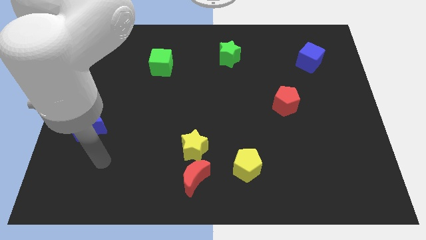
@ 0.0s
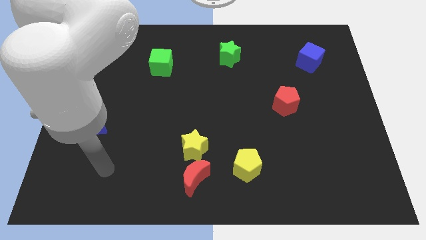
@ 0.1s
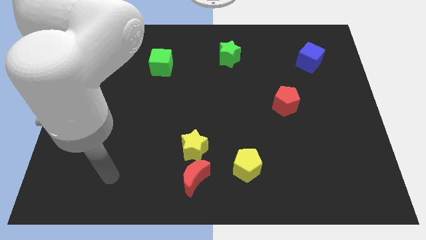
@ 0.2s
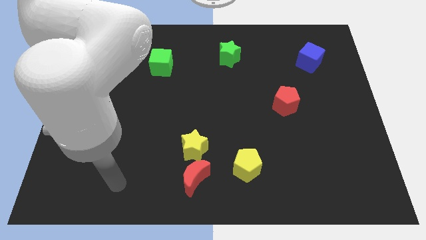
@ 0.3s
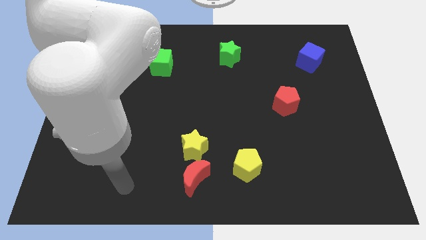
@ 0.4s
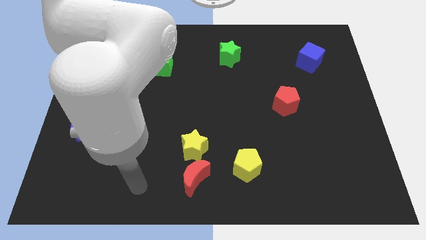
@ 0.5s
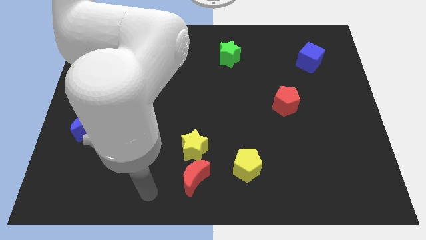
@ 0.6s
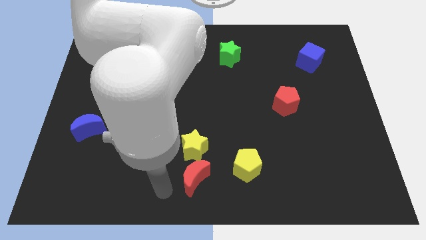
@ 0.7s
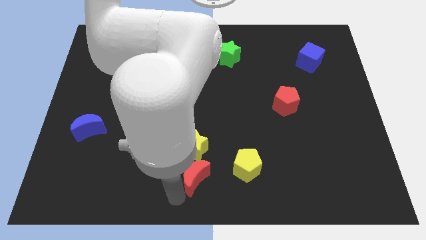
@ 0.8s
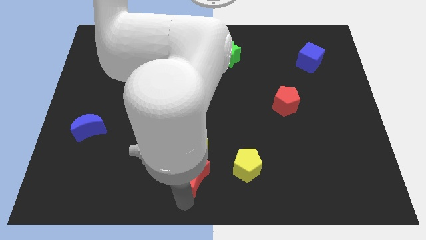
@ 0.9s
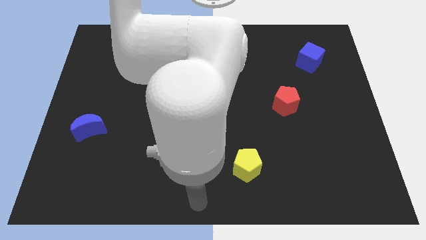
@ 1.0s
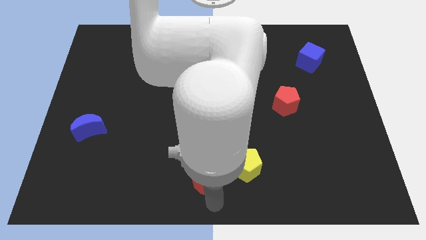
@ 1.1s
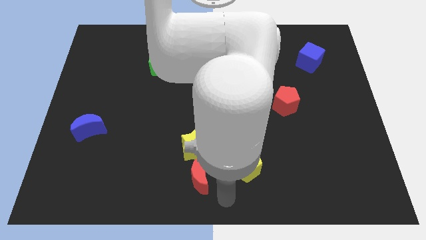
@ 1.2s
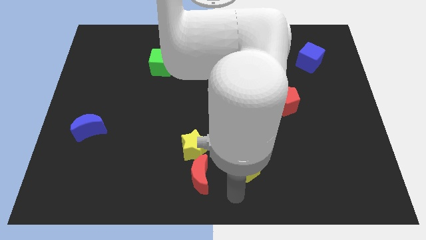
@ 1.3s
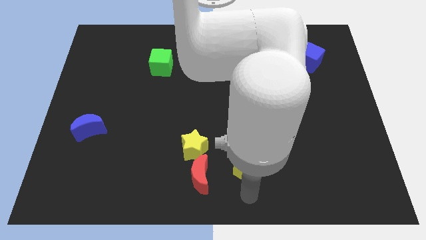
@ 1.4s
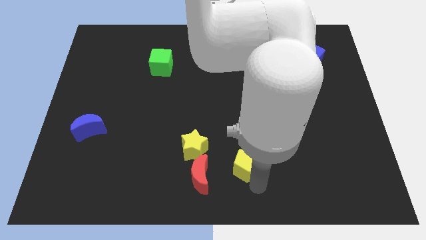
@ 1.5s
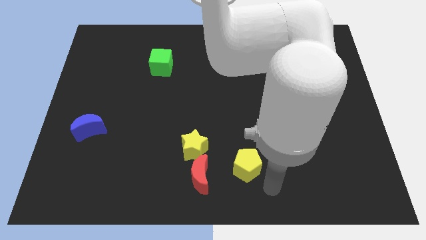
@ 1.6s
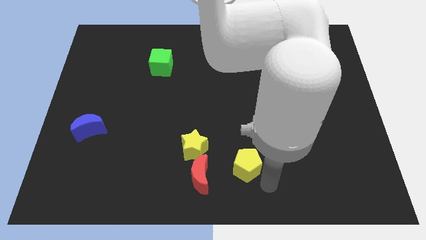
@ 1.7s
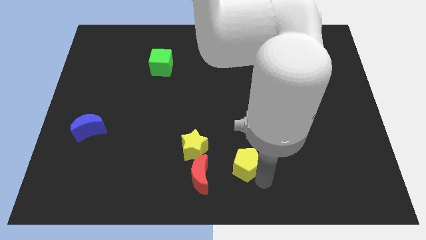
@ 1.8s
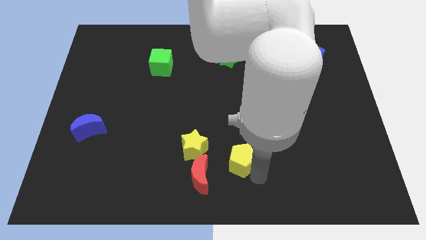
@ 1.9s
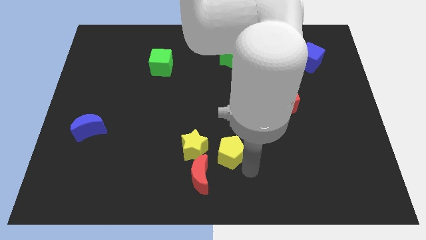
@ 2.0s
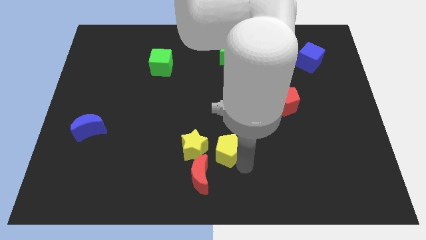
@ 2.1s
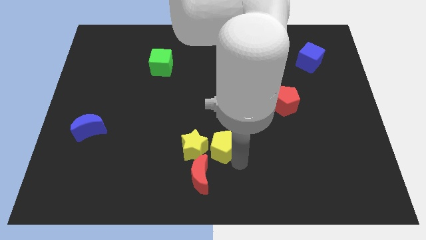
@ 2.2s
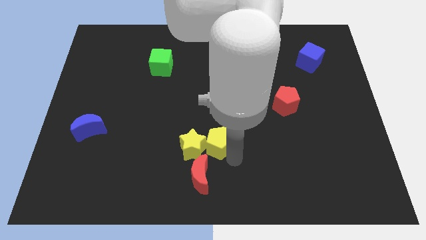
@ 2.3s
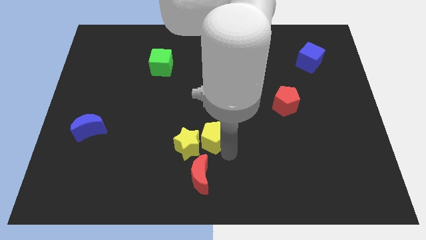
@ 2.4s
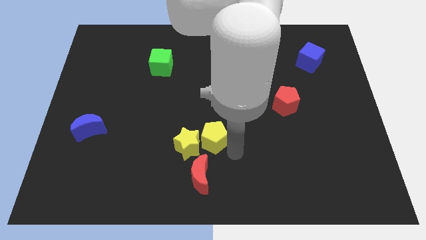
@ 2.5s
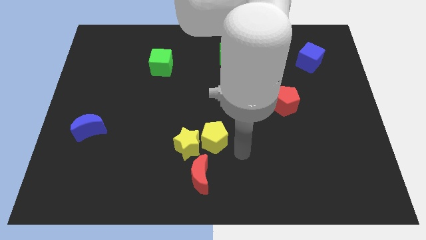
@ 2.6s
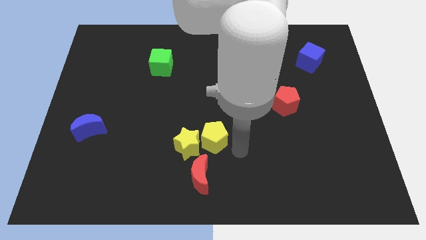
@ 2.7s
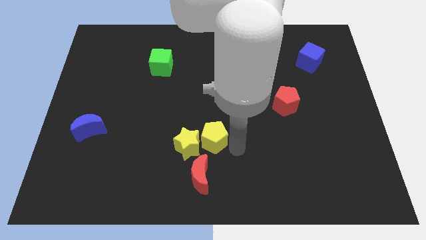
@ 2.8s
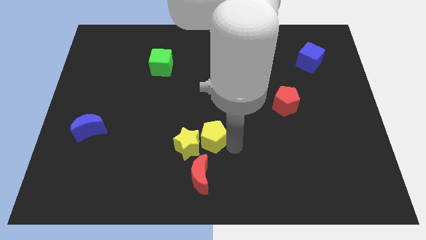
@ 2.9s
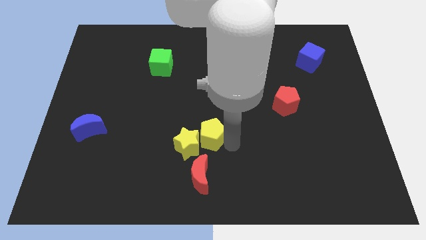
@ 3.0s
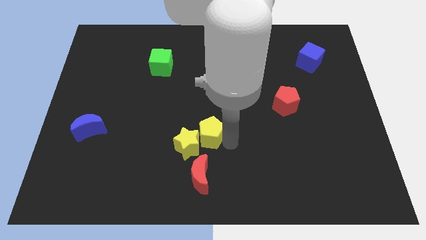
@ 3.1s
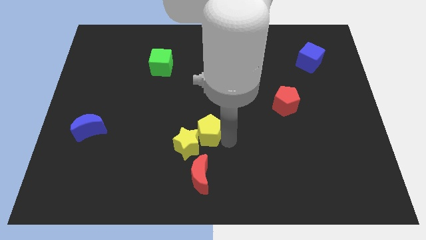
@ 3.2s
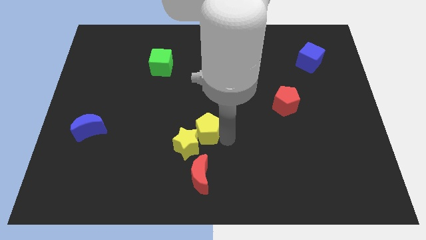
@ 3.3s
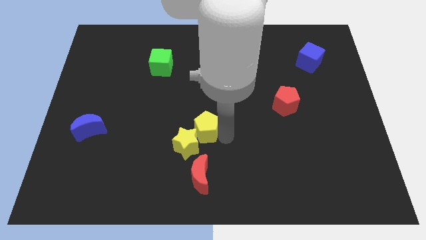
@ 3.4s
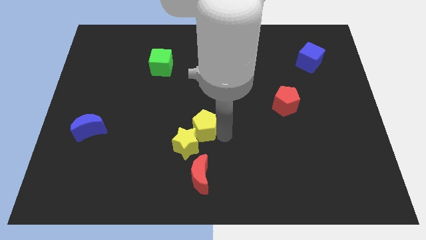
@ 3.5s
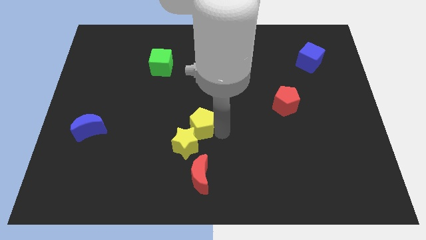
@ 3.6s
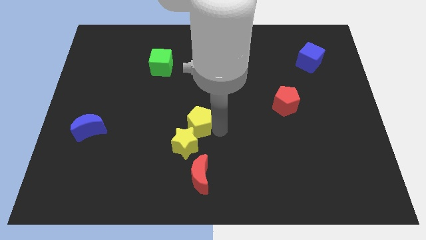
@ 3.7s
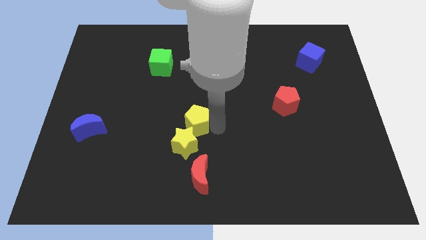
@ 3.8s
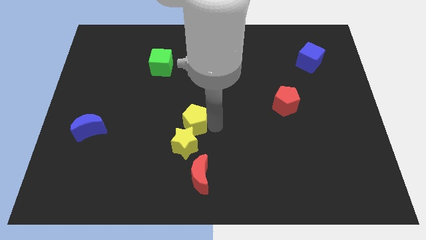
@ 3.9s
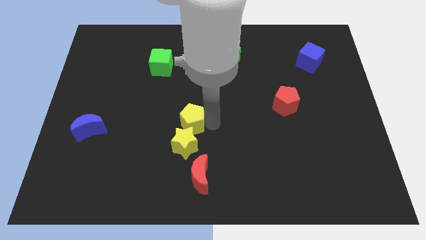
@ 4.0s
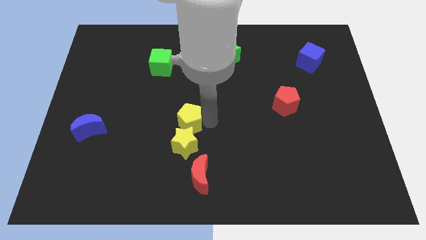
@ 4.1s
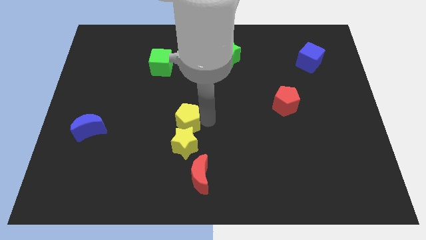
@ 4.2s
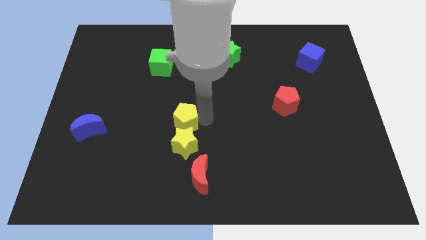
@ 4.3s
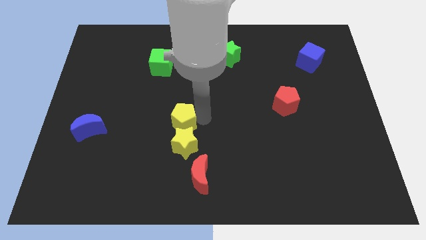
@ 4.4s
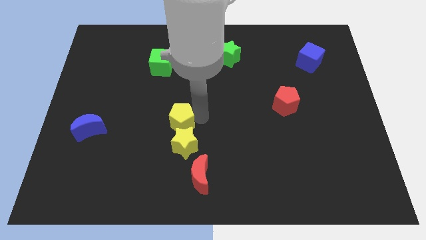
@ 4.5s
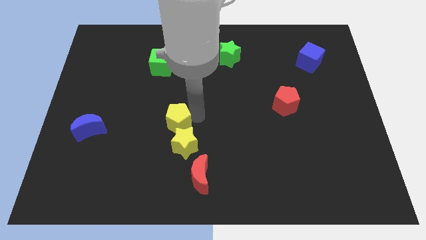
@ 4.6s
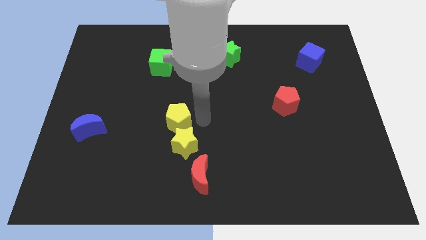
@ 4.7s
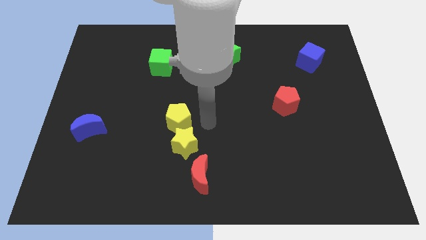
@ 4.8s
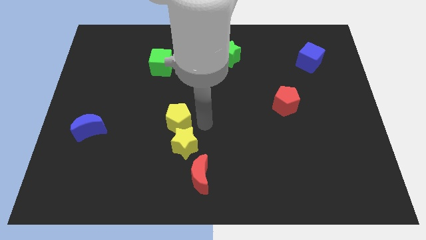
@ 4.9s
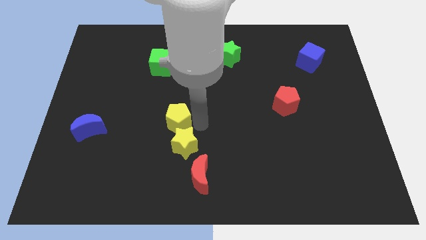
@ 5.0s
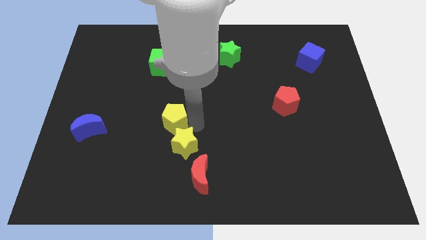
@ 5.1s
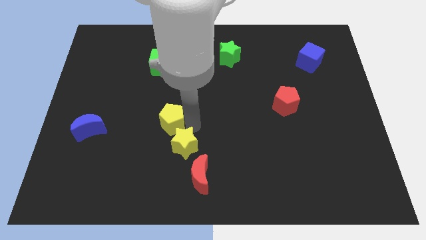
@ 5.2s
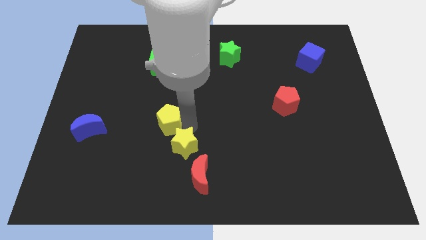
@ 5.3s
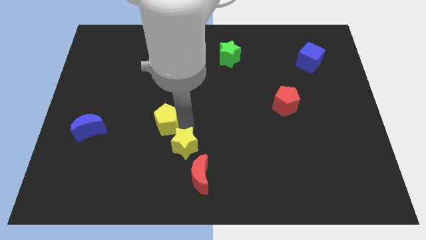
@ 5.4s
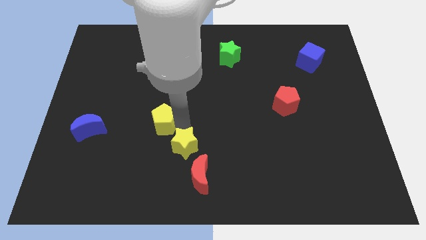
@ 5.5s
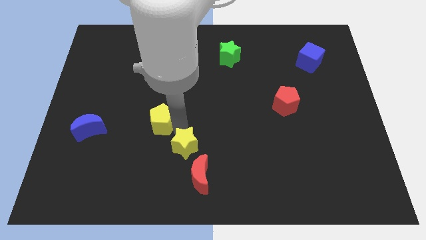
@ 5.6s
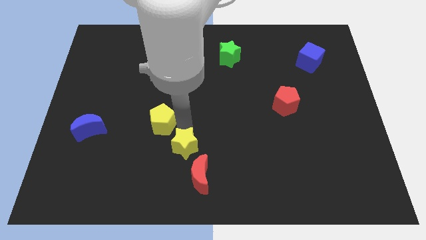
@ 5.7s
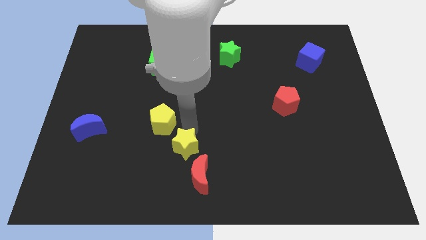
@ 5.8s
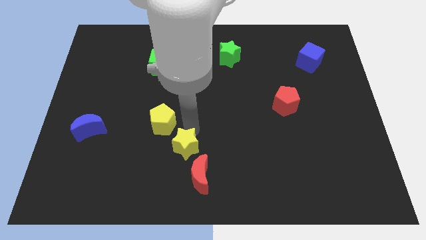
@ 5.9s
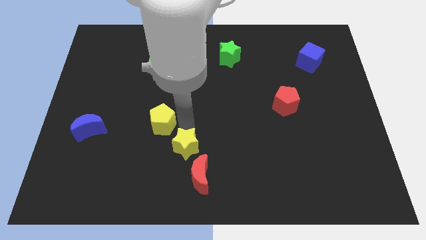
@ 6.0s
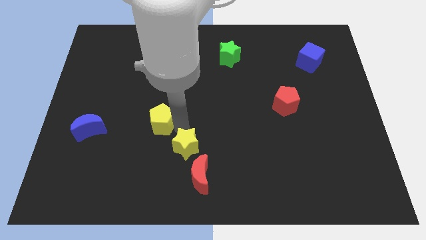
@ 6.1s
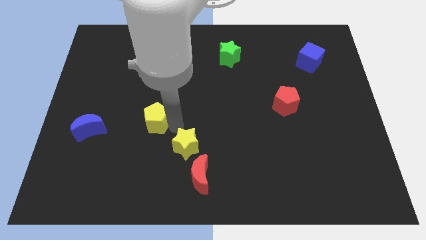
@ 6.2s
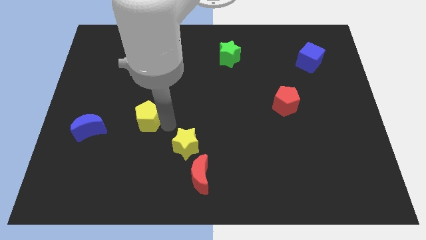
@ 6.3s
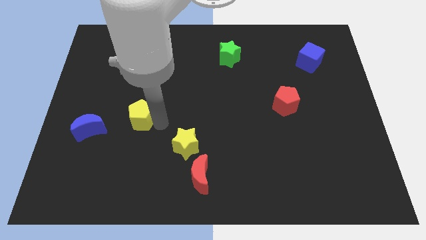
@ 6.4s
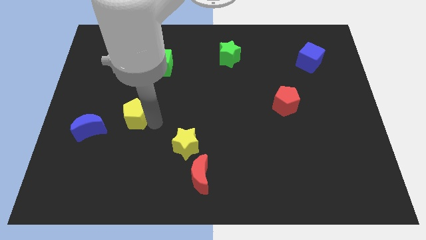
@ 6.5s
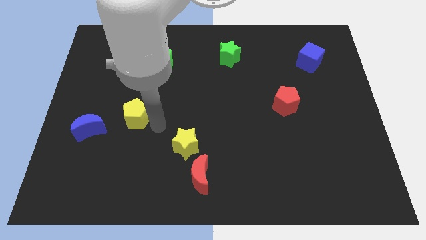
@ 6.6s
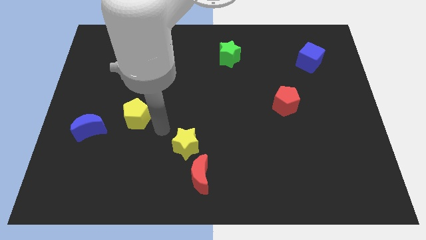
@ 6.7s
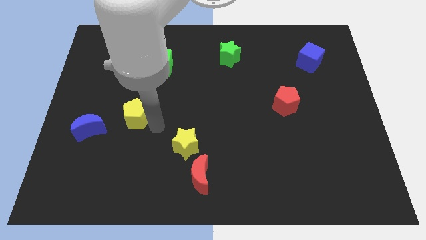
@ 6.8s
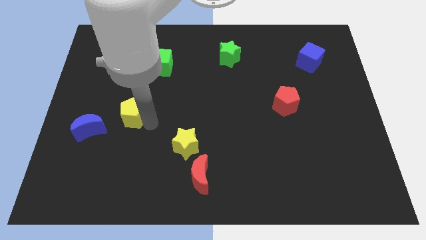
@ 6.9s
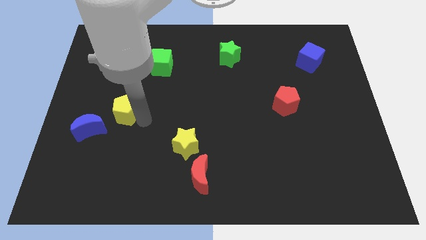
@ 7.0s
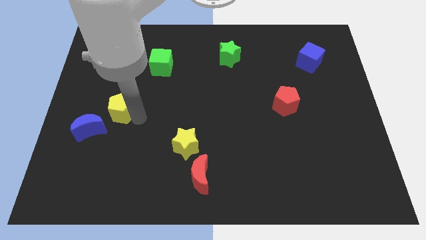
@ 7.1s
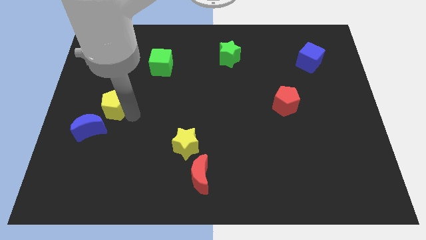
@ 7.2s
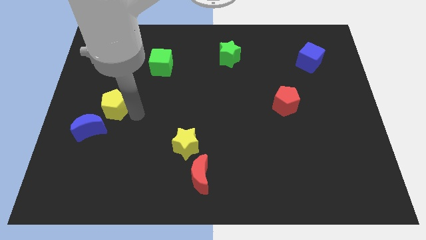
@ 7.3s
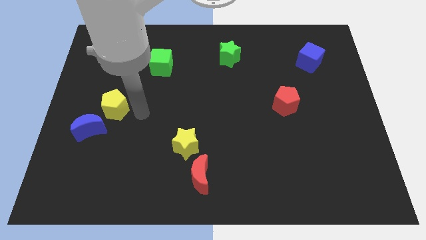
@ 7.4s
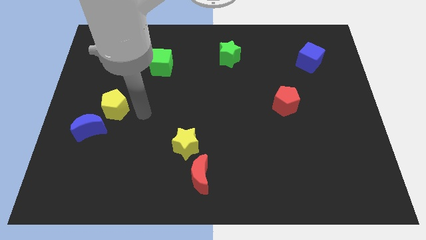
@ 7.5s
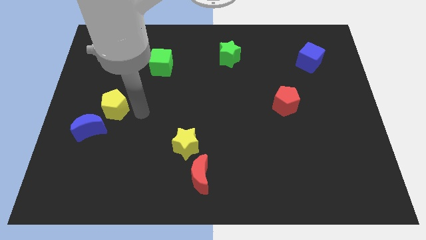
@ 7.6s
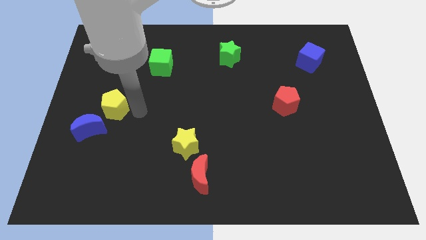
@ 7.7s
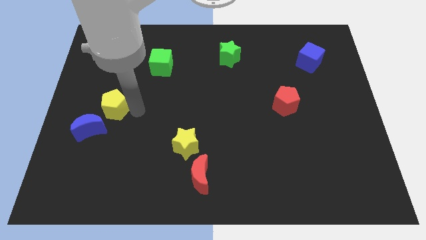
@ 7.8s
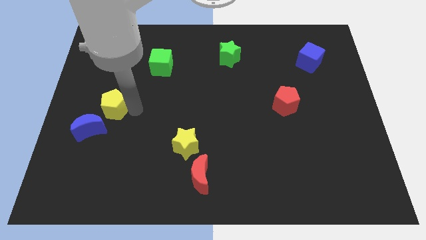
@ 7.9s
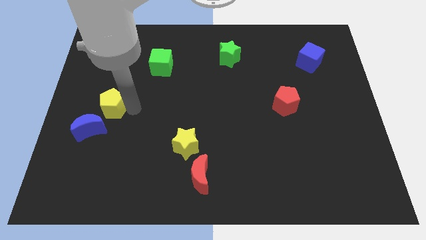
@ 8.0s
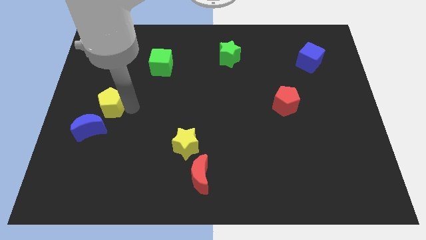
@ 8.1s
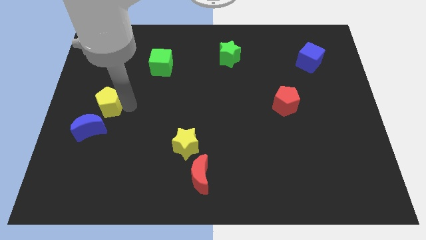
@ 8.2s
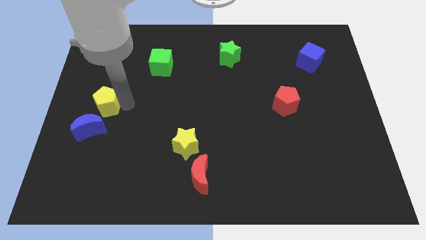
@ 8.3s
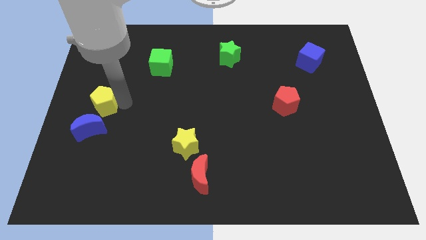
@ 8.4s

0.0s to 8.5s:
move the yellow pentagon to the left side of the board
